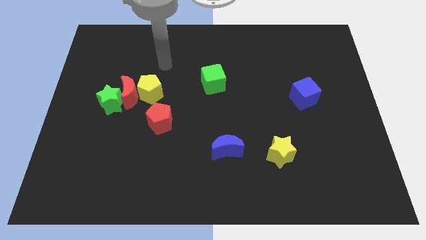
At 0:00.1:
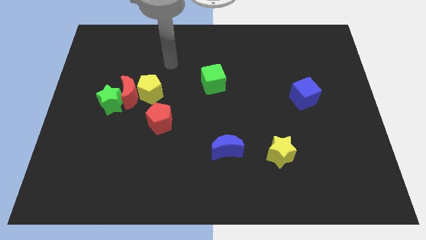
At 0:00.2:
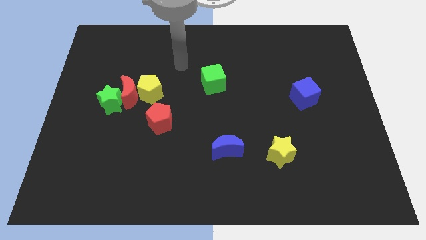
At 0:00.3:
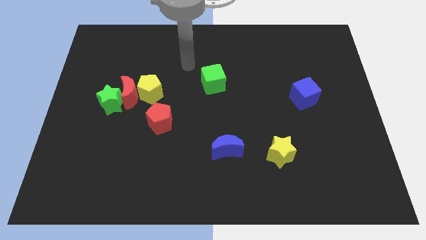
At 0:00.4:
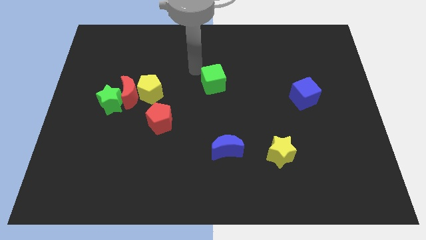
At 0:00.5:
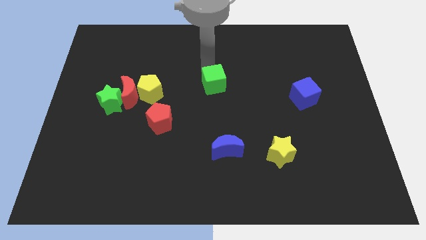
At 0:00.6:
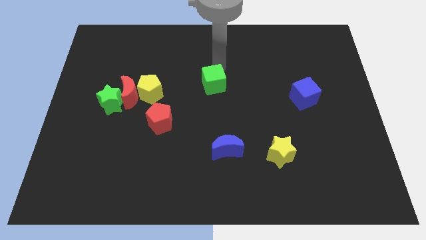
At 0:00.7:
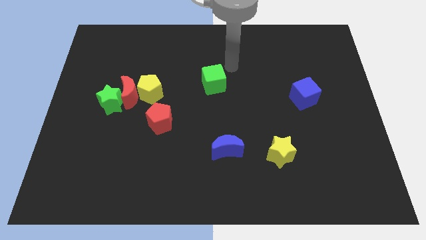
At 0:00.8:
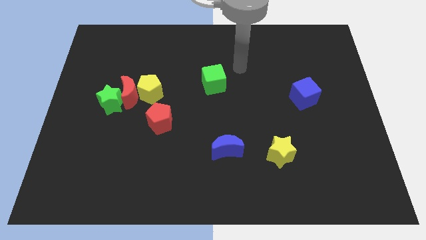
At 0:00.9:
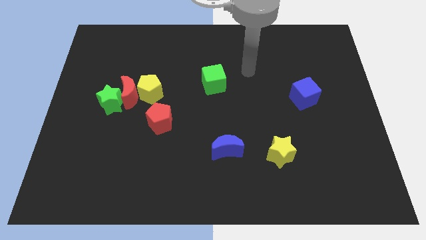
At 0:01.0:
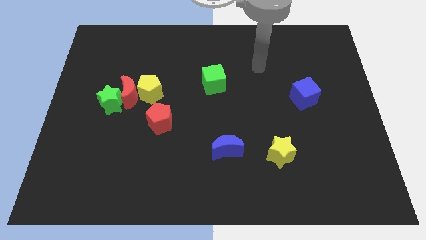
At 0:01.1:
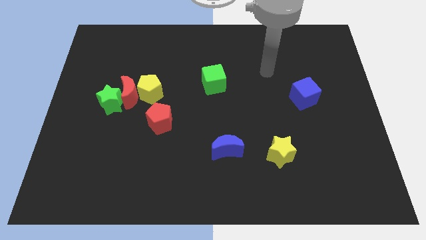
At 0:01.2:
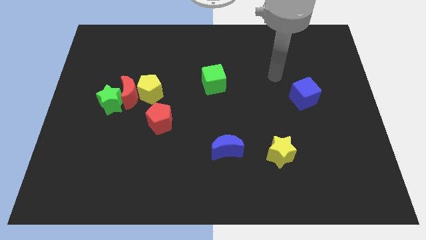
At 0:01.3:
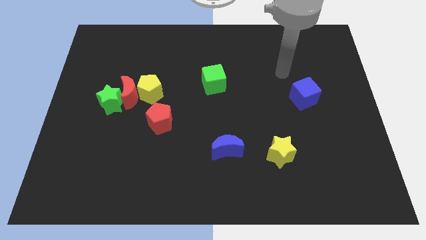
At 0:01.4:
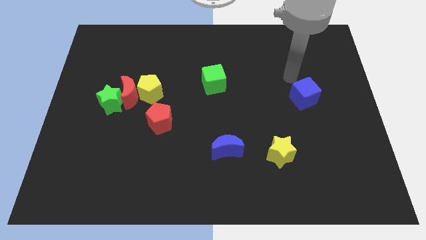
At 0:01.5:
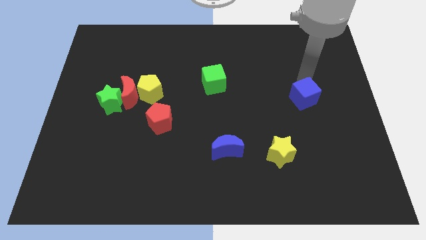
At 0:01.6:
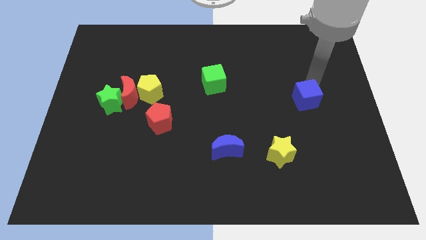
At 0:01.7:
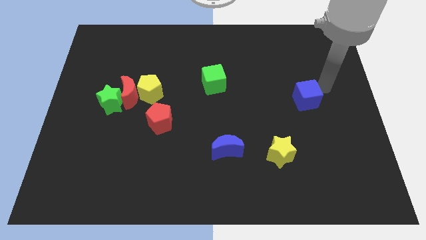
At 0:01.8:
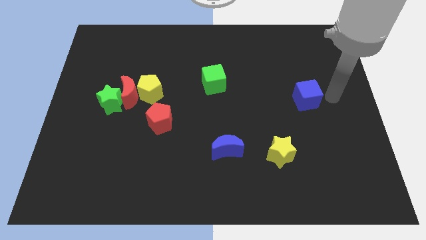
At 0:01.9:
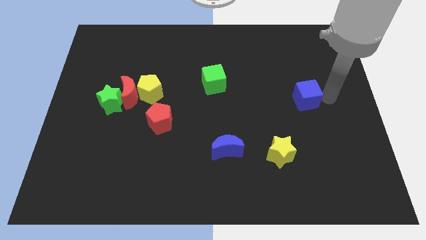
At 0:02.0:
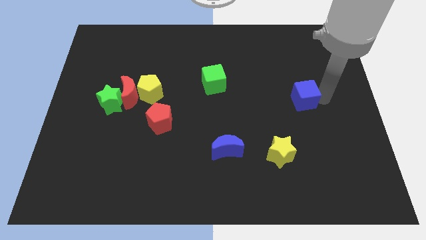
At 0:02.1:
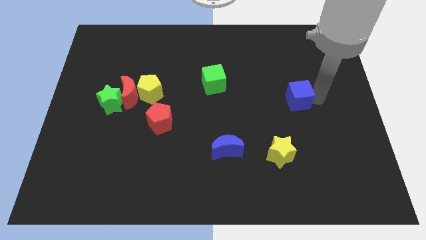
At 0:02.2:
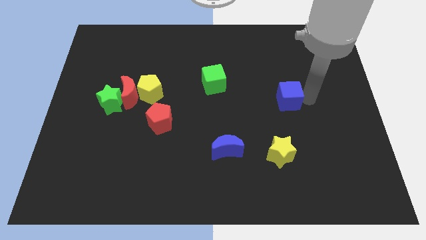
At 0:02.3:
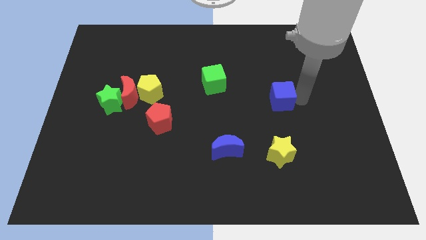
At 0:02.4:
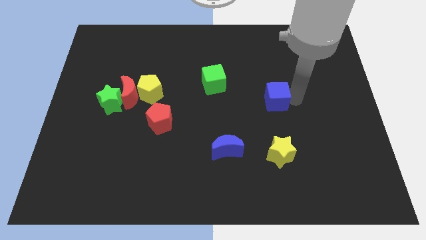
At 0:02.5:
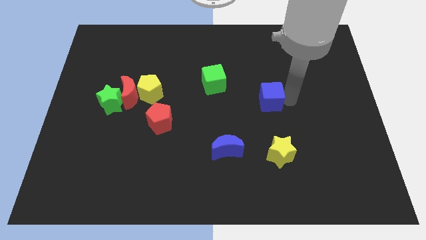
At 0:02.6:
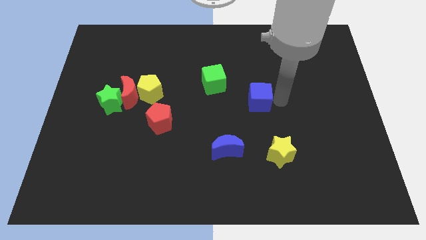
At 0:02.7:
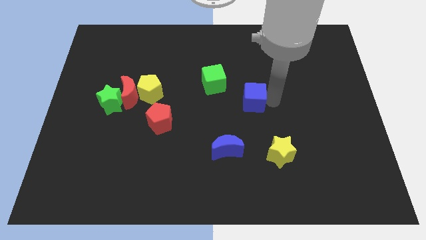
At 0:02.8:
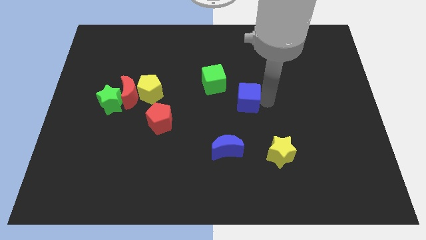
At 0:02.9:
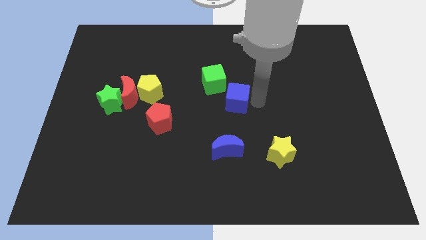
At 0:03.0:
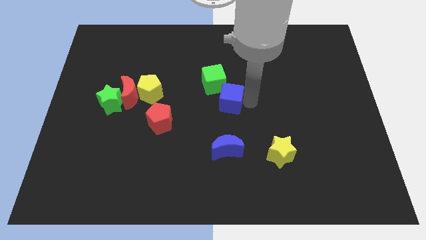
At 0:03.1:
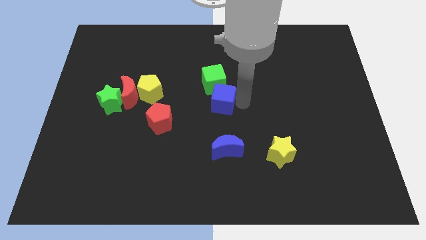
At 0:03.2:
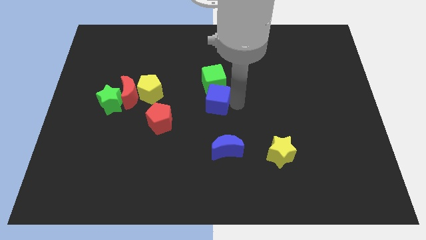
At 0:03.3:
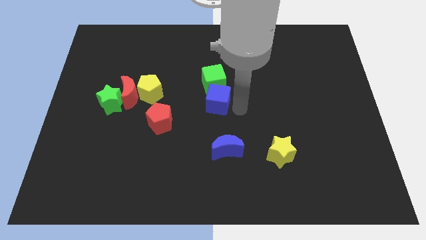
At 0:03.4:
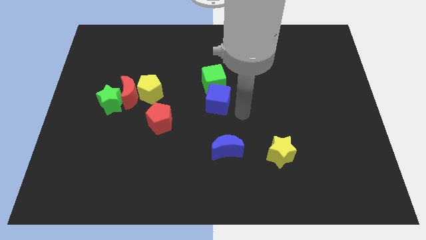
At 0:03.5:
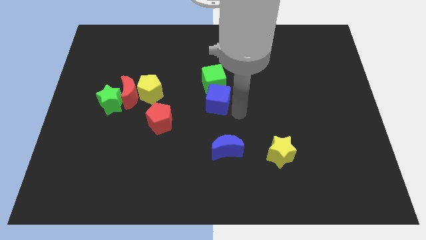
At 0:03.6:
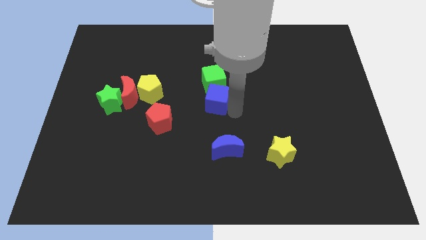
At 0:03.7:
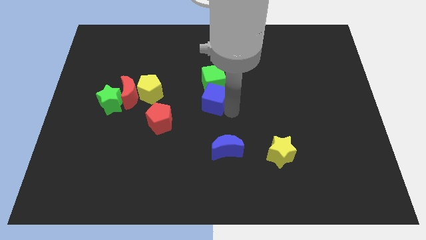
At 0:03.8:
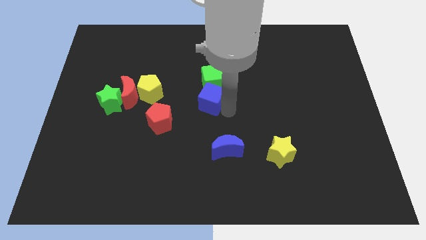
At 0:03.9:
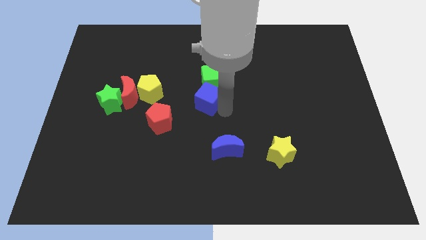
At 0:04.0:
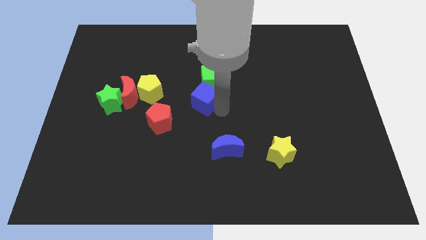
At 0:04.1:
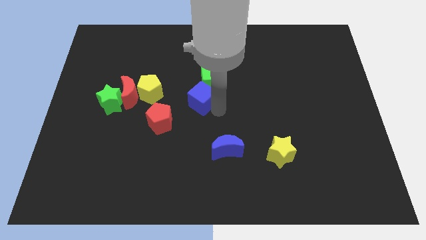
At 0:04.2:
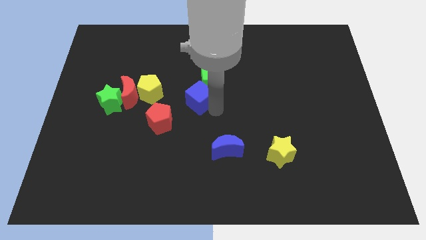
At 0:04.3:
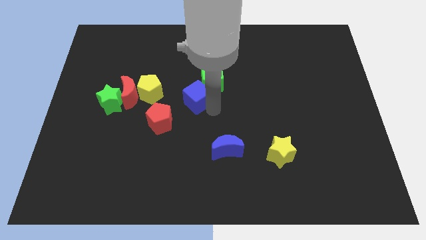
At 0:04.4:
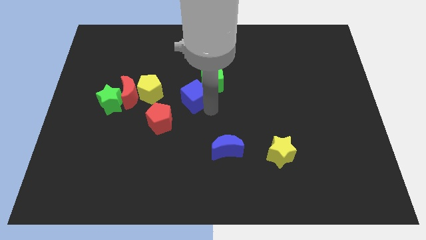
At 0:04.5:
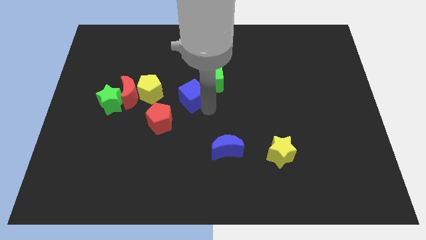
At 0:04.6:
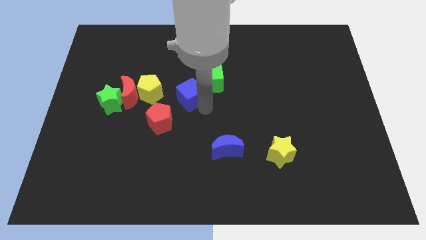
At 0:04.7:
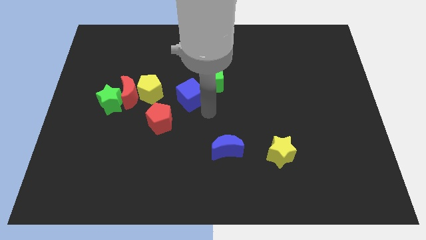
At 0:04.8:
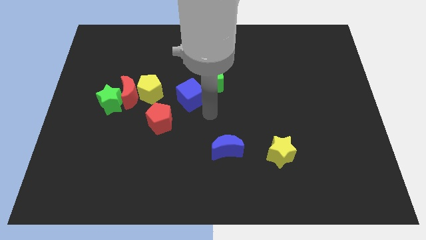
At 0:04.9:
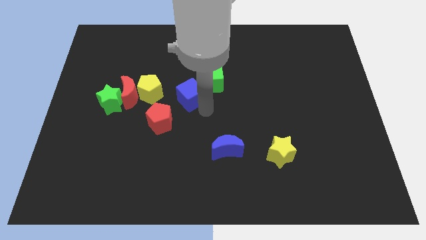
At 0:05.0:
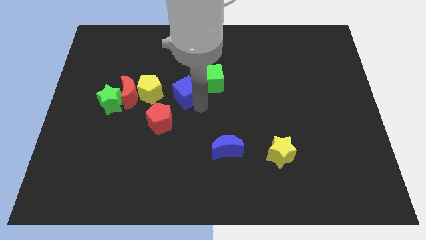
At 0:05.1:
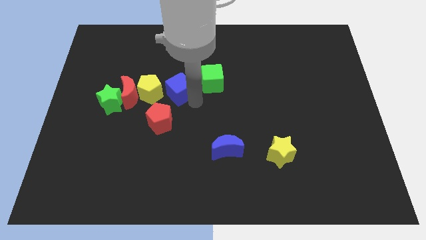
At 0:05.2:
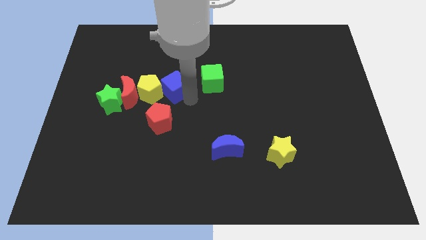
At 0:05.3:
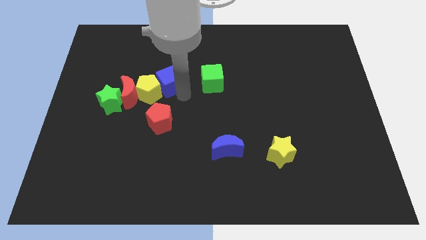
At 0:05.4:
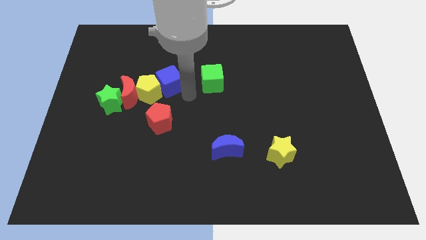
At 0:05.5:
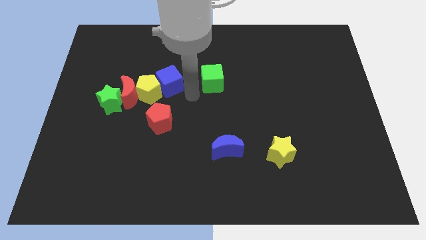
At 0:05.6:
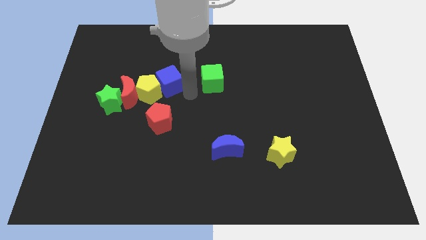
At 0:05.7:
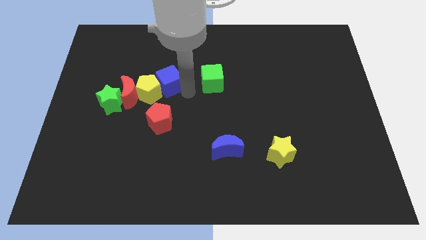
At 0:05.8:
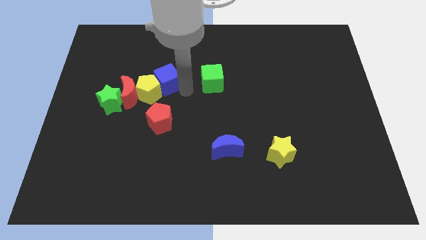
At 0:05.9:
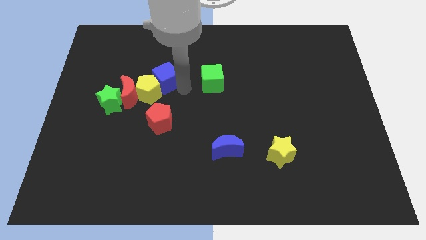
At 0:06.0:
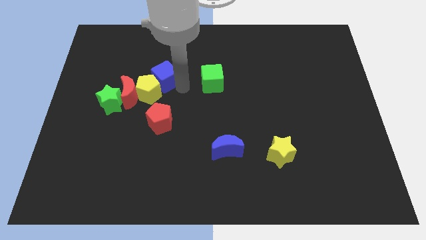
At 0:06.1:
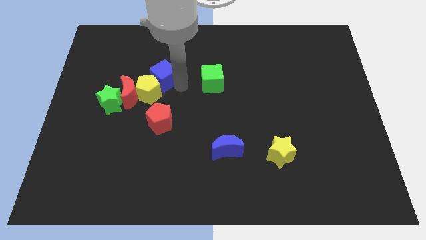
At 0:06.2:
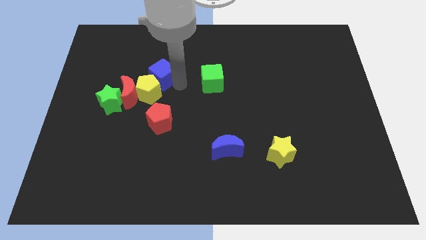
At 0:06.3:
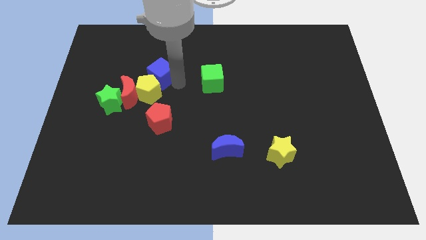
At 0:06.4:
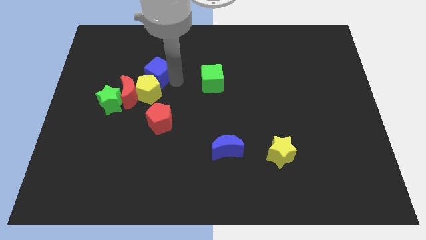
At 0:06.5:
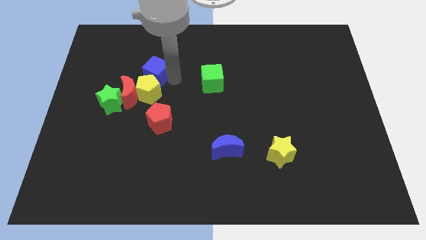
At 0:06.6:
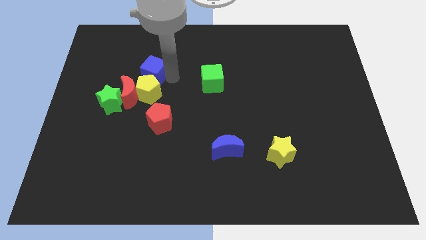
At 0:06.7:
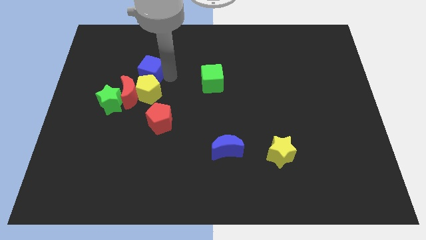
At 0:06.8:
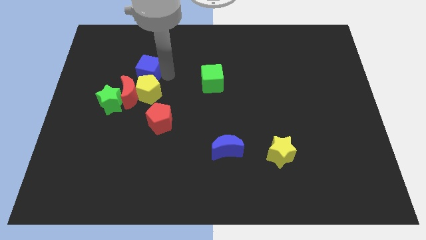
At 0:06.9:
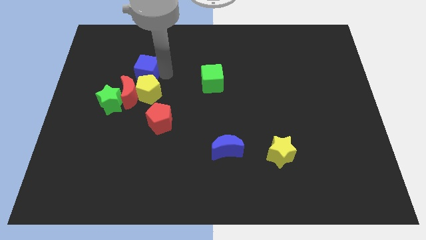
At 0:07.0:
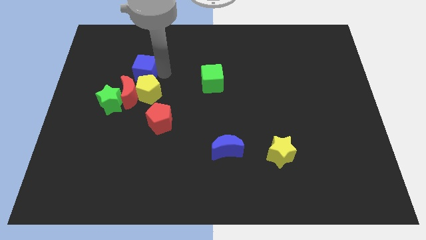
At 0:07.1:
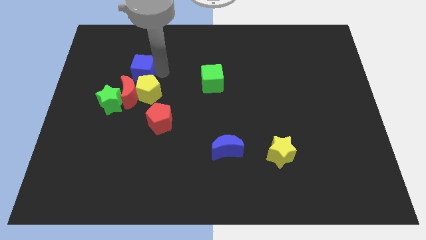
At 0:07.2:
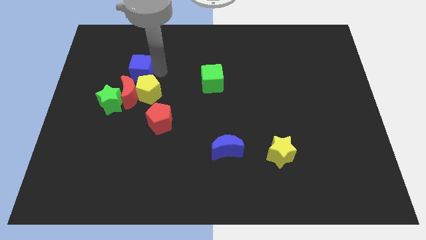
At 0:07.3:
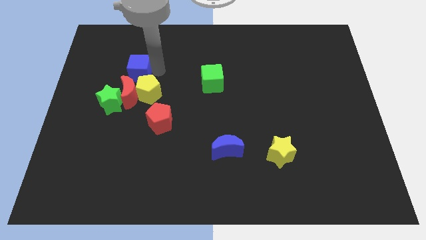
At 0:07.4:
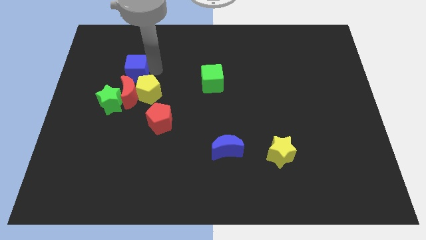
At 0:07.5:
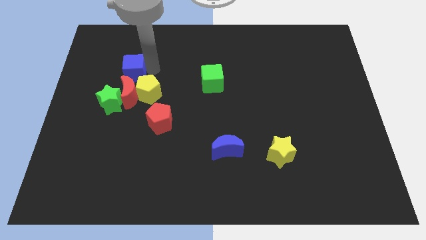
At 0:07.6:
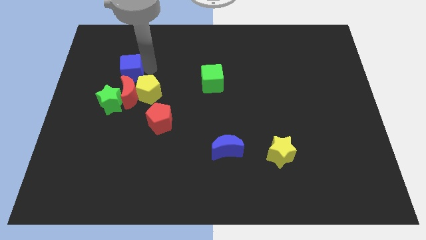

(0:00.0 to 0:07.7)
push the blue cube to the top left of the red moon
